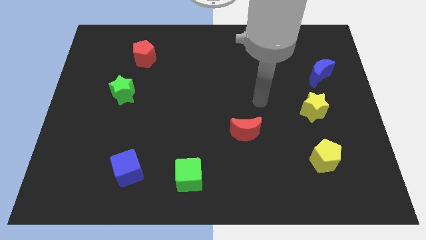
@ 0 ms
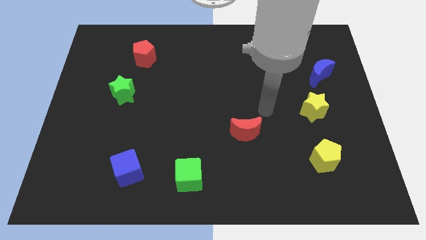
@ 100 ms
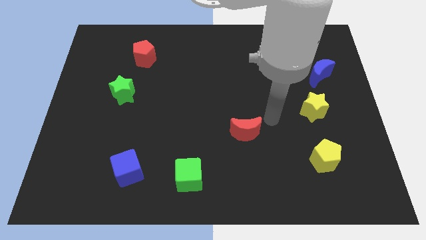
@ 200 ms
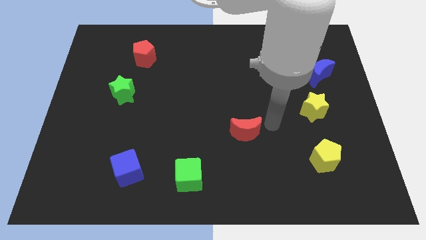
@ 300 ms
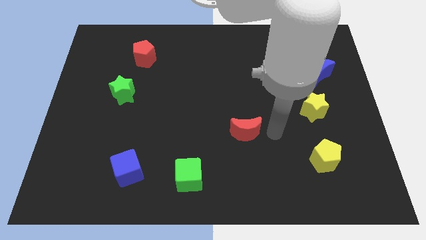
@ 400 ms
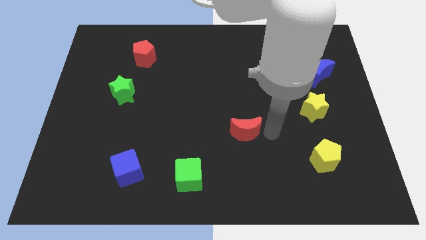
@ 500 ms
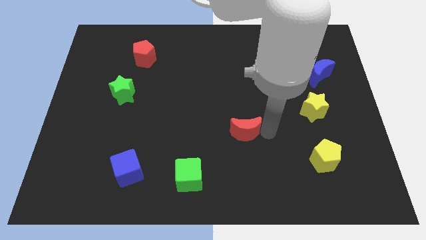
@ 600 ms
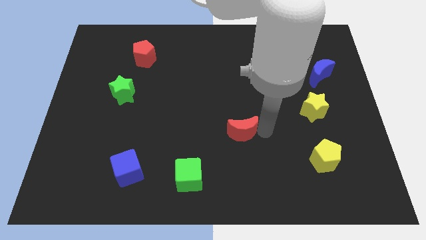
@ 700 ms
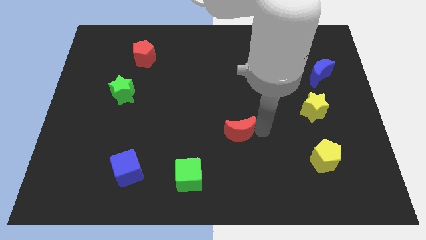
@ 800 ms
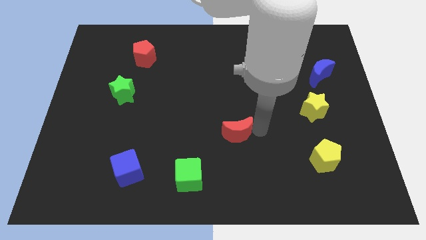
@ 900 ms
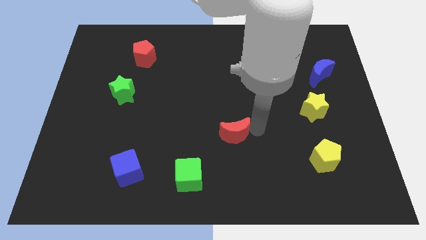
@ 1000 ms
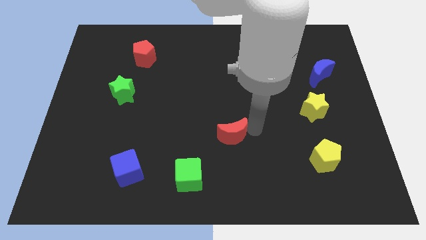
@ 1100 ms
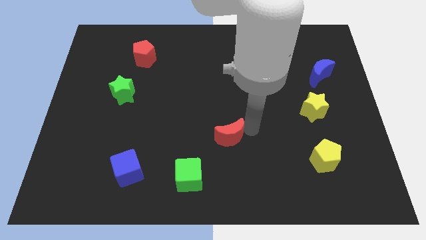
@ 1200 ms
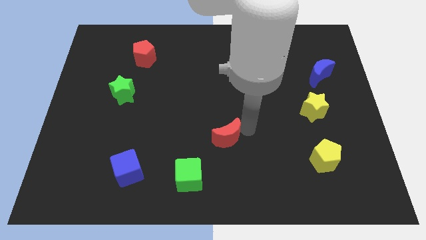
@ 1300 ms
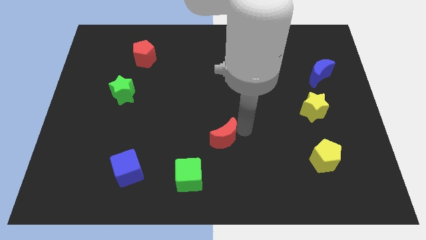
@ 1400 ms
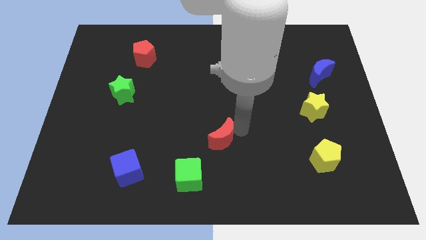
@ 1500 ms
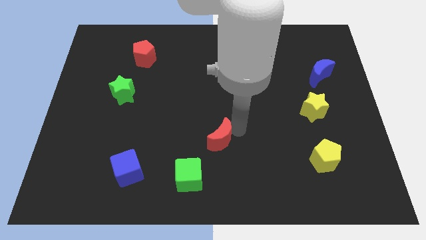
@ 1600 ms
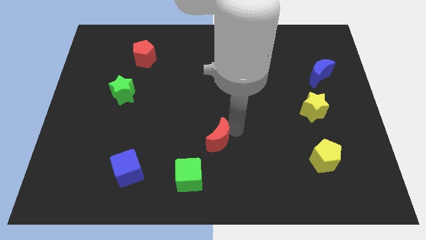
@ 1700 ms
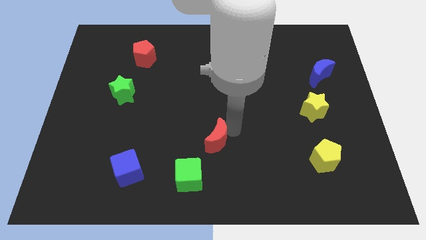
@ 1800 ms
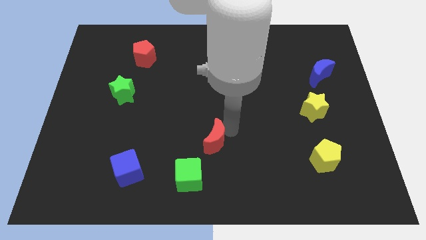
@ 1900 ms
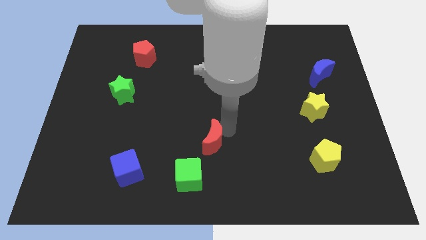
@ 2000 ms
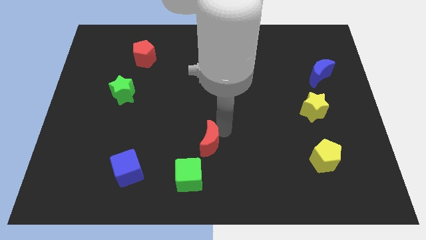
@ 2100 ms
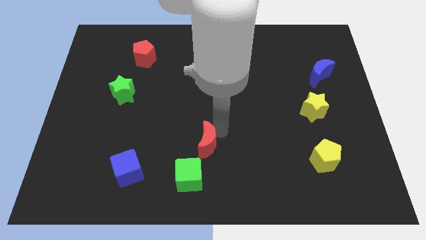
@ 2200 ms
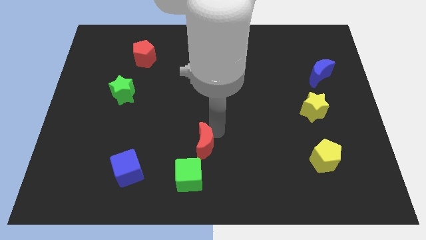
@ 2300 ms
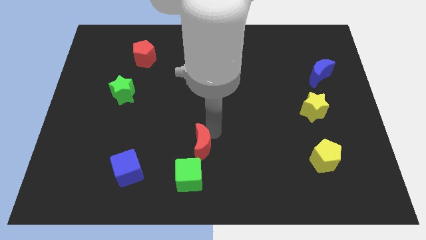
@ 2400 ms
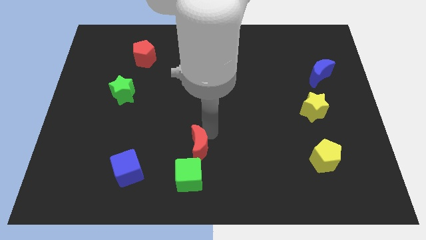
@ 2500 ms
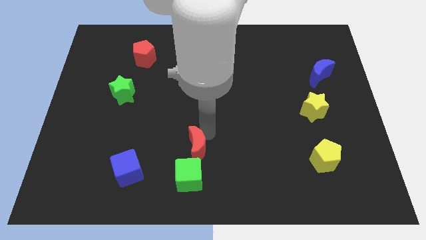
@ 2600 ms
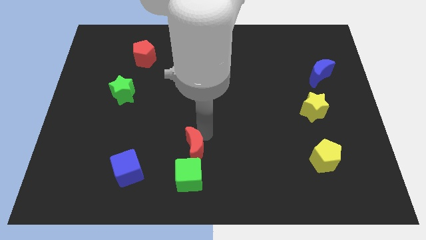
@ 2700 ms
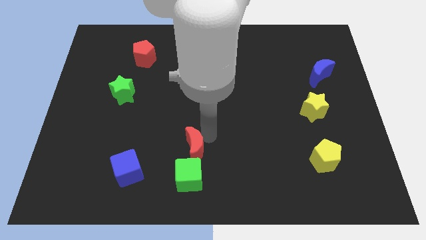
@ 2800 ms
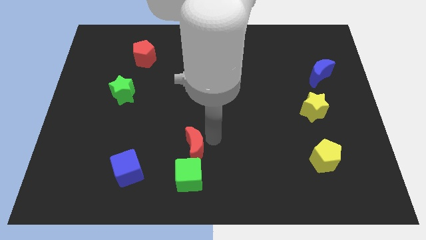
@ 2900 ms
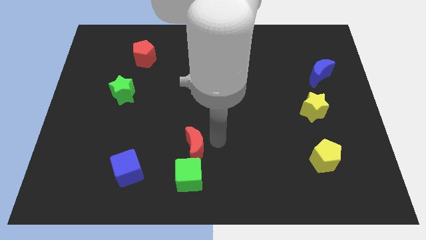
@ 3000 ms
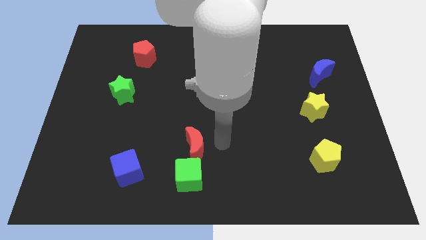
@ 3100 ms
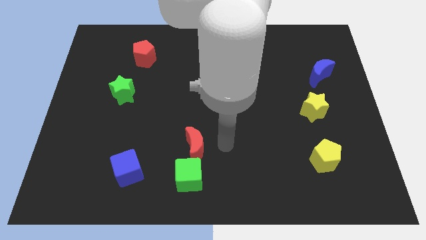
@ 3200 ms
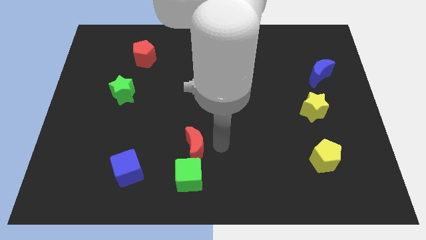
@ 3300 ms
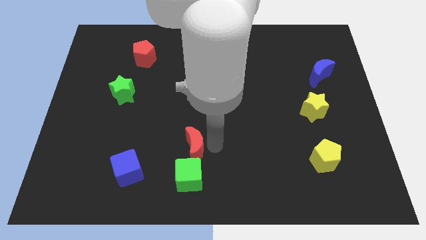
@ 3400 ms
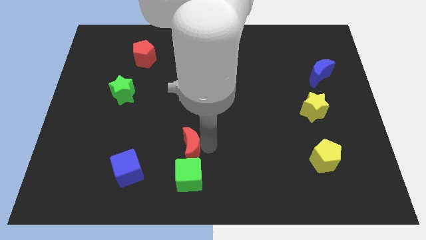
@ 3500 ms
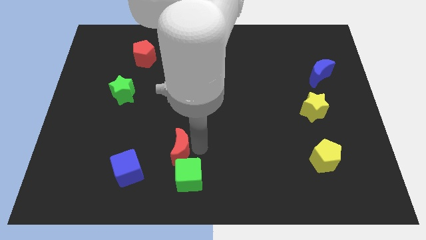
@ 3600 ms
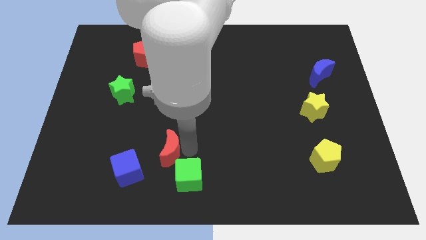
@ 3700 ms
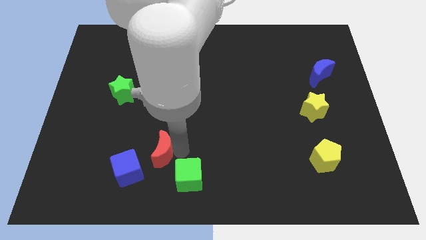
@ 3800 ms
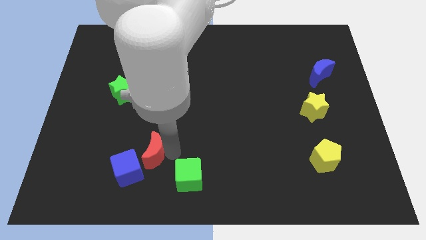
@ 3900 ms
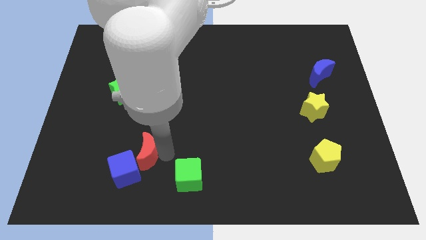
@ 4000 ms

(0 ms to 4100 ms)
push the red moon left

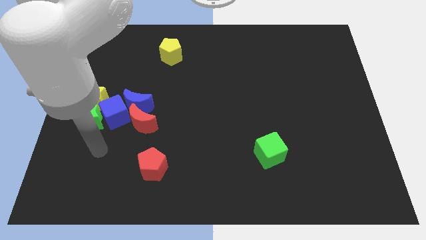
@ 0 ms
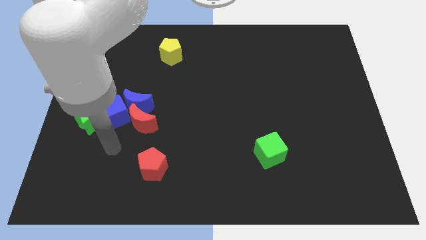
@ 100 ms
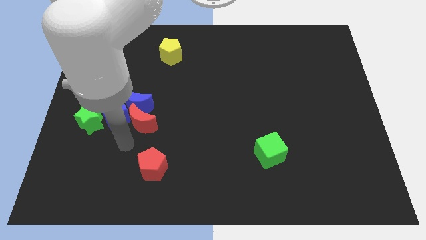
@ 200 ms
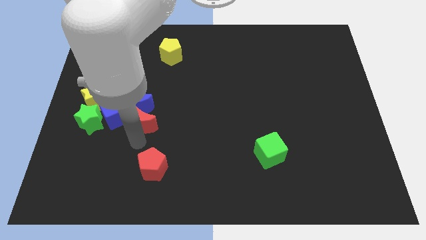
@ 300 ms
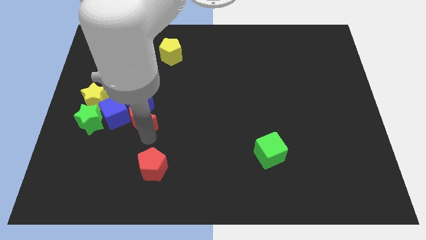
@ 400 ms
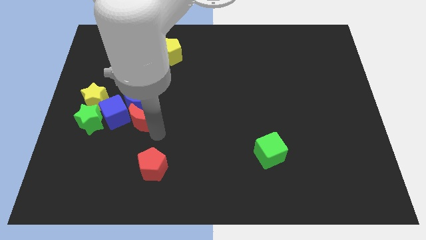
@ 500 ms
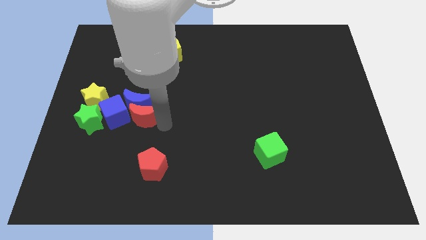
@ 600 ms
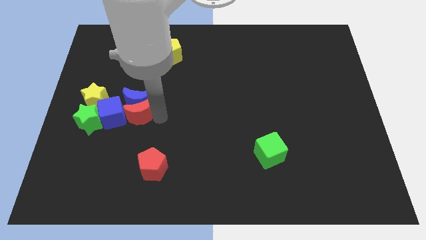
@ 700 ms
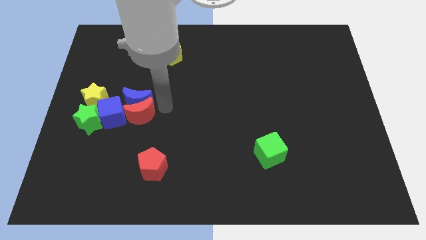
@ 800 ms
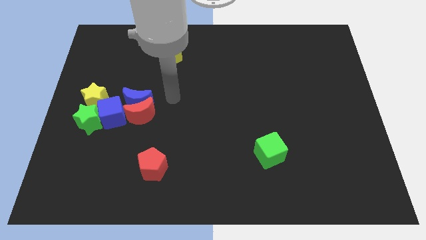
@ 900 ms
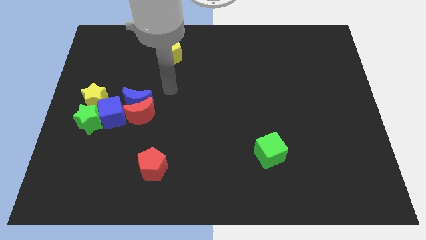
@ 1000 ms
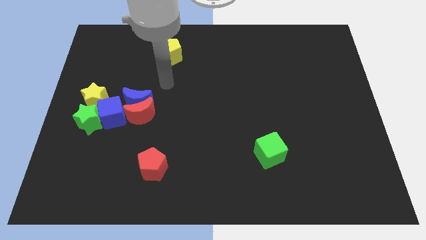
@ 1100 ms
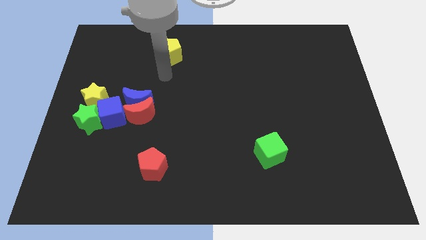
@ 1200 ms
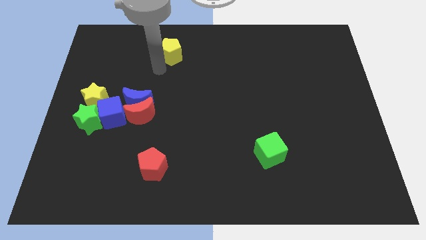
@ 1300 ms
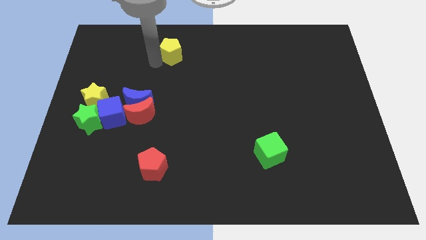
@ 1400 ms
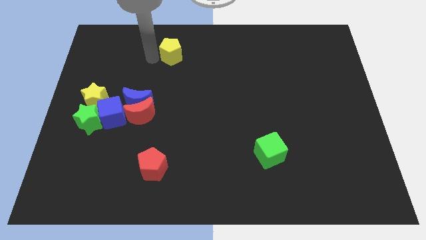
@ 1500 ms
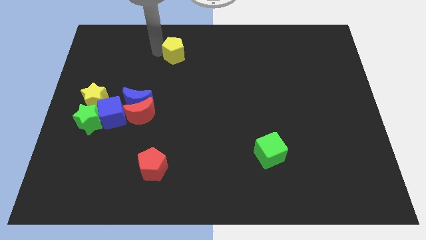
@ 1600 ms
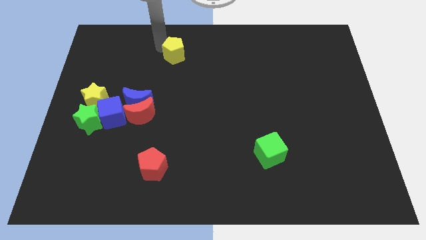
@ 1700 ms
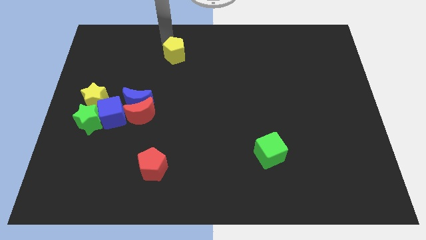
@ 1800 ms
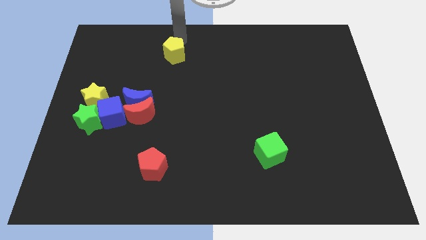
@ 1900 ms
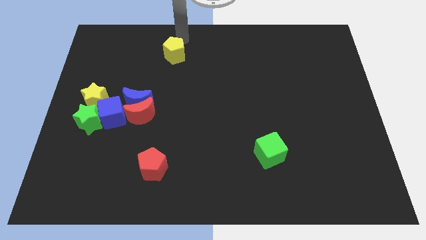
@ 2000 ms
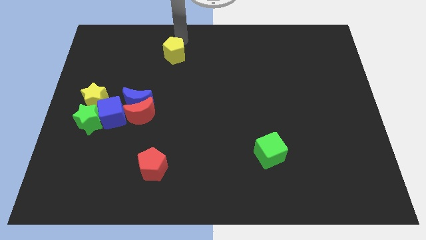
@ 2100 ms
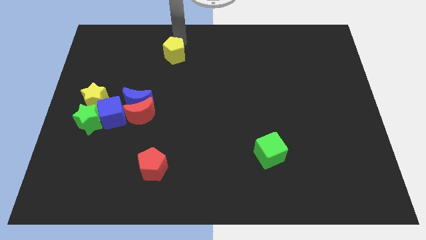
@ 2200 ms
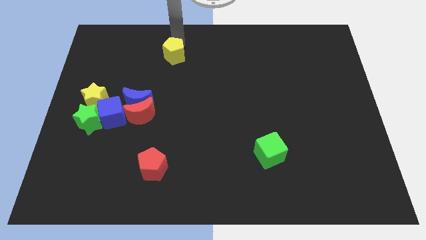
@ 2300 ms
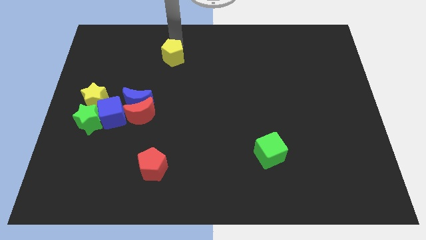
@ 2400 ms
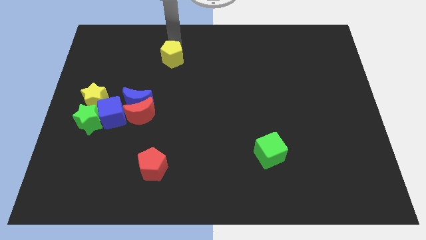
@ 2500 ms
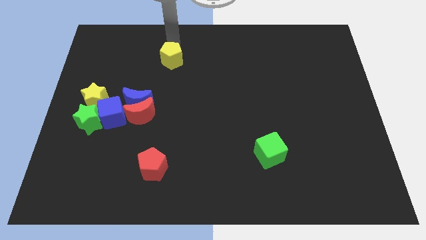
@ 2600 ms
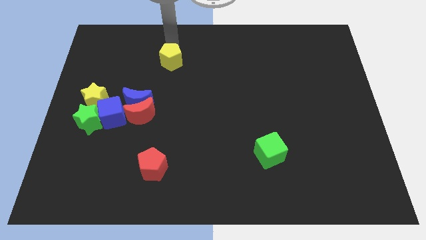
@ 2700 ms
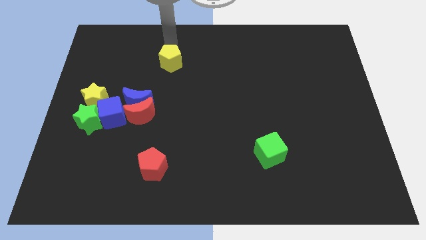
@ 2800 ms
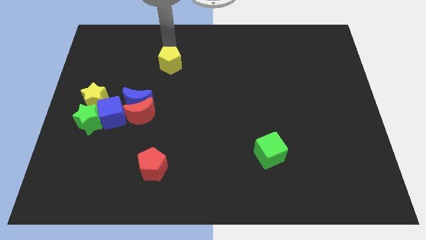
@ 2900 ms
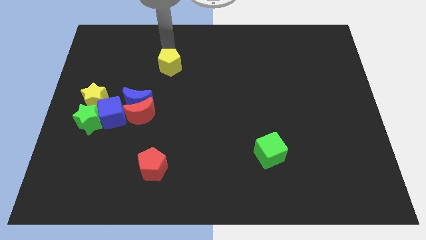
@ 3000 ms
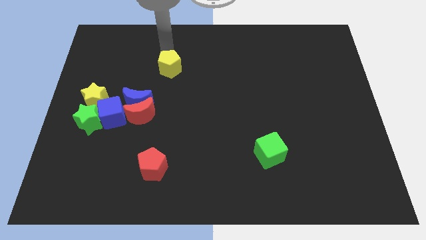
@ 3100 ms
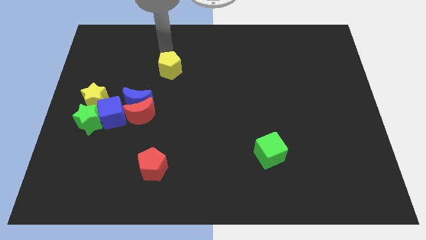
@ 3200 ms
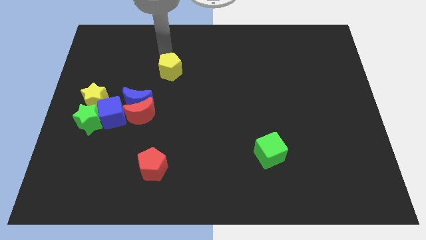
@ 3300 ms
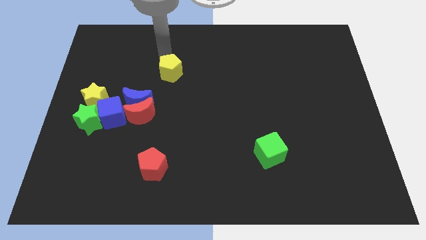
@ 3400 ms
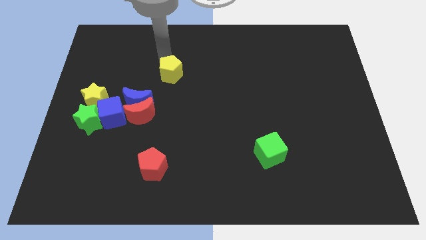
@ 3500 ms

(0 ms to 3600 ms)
push the yellow pentagon down a little

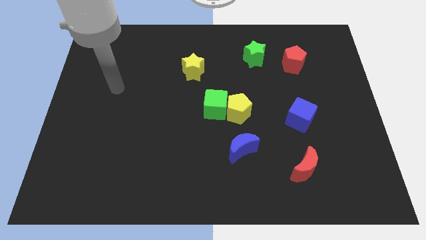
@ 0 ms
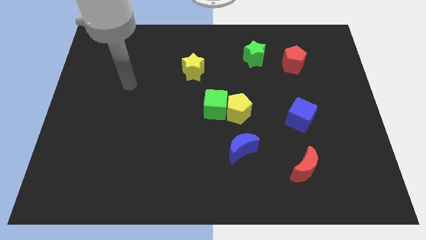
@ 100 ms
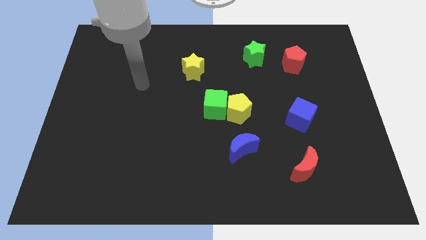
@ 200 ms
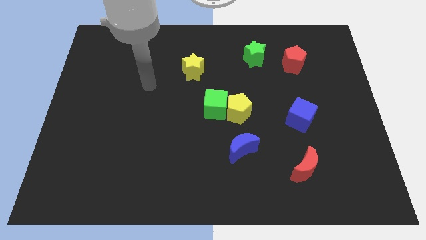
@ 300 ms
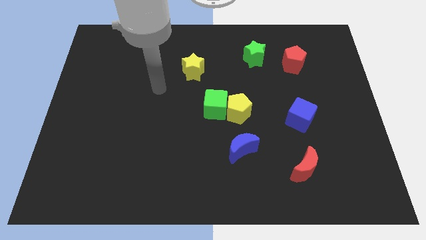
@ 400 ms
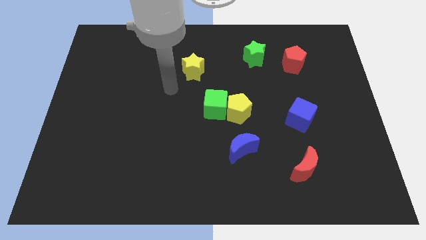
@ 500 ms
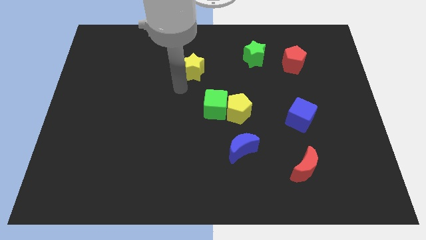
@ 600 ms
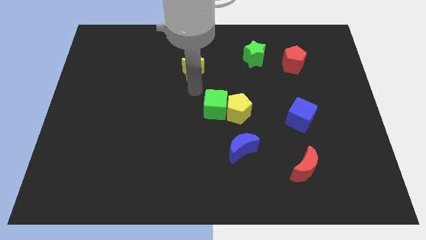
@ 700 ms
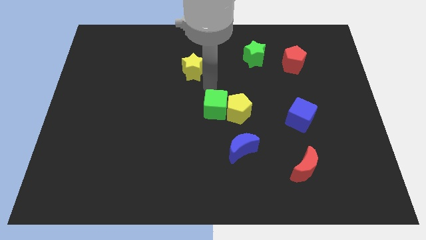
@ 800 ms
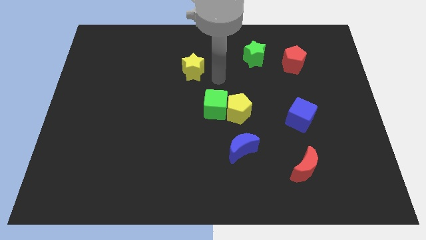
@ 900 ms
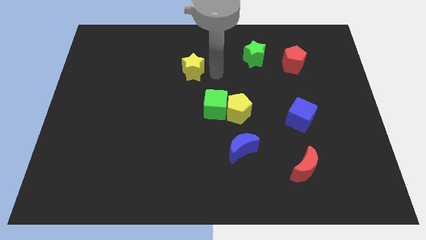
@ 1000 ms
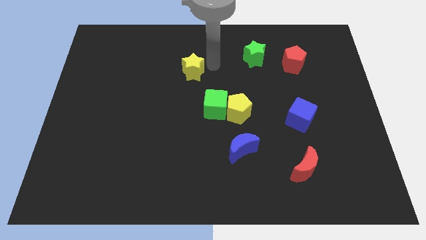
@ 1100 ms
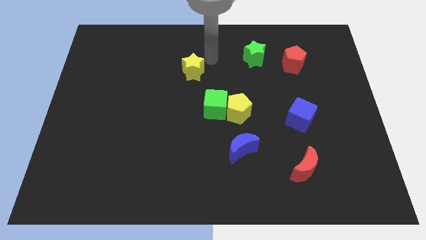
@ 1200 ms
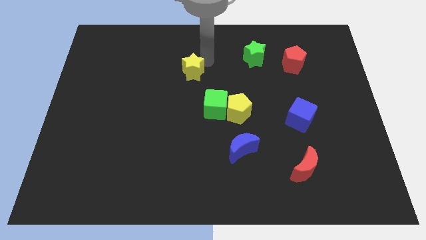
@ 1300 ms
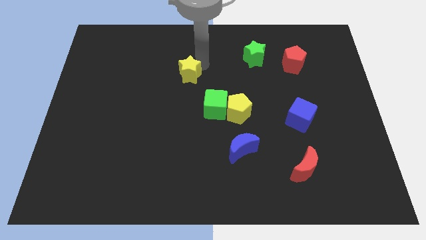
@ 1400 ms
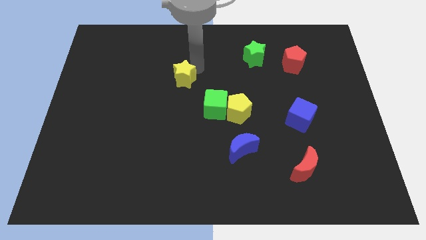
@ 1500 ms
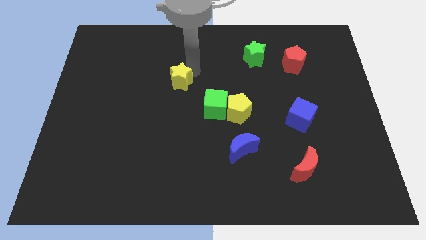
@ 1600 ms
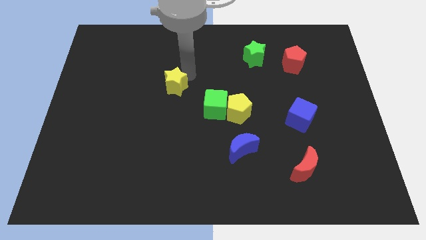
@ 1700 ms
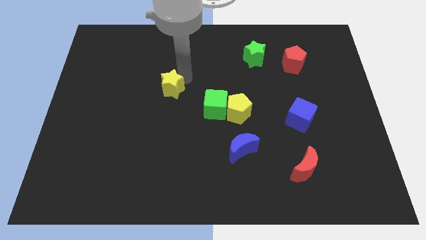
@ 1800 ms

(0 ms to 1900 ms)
slightly move the yellow star downwards and left
